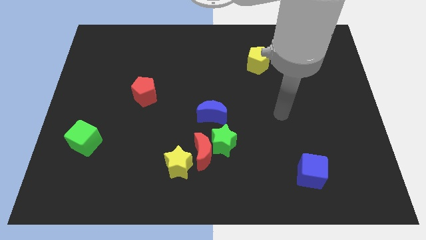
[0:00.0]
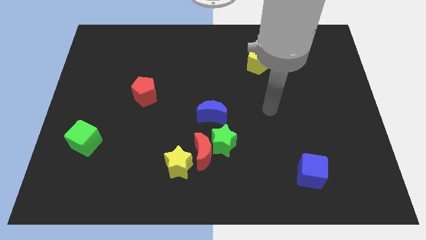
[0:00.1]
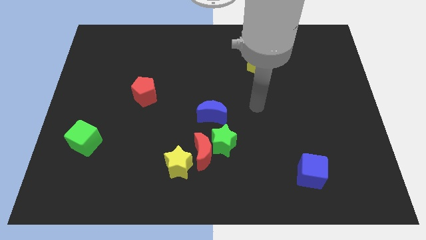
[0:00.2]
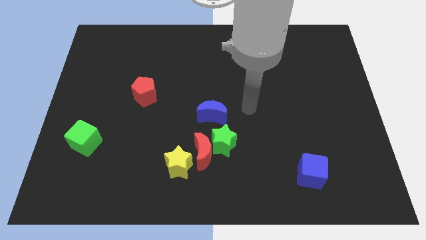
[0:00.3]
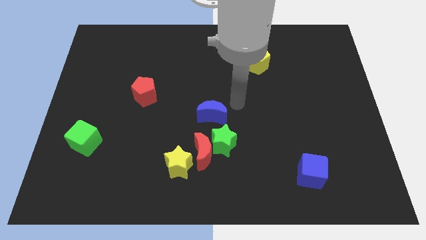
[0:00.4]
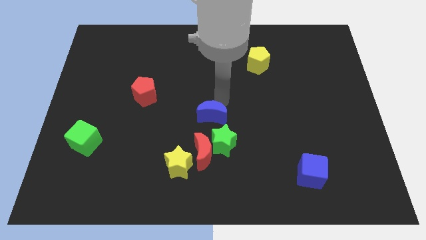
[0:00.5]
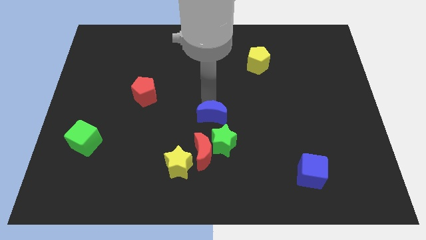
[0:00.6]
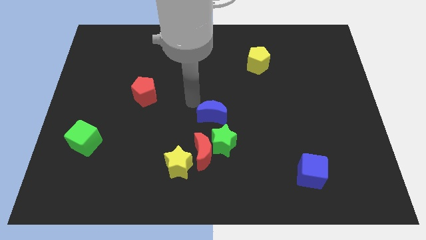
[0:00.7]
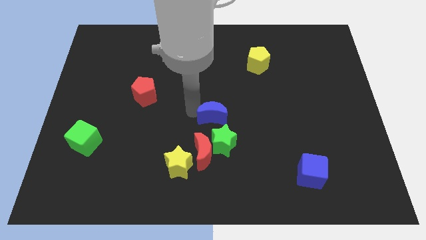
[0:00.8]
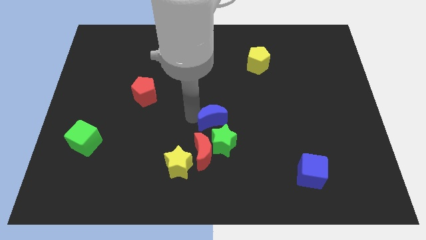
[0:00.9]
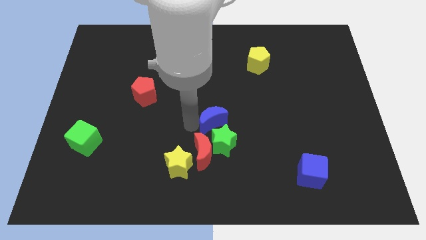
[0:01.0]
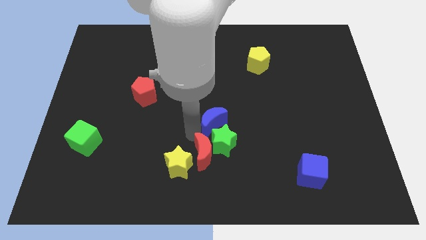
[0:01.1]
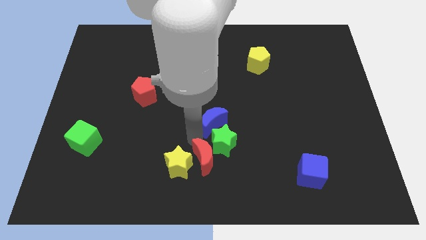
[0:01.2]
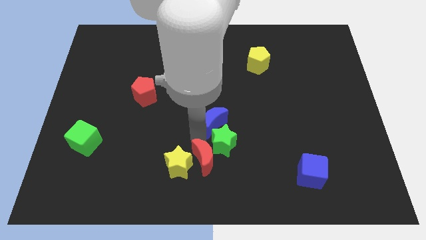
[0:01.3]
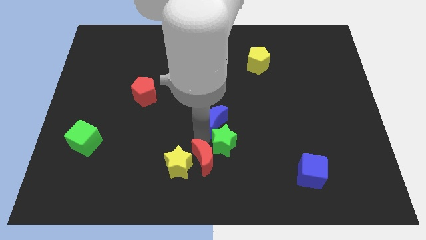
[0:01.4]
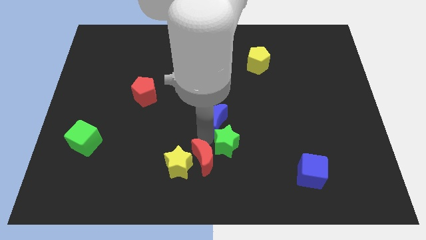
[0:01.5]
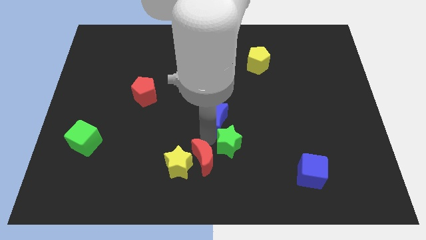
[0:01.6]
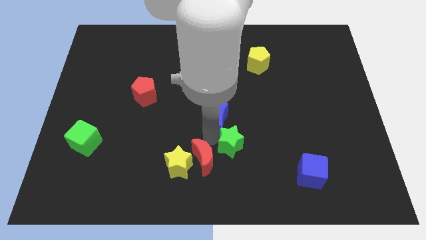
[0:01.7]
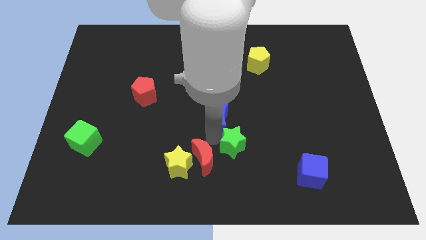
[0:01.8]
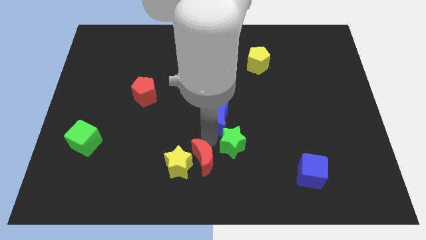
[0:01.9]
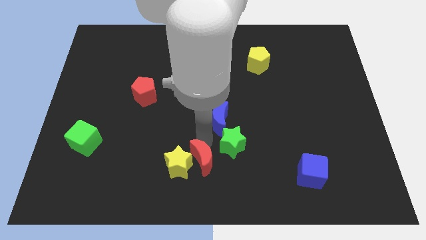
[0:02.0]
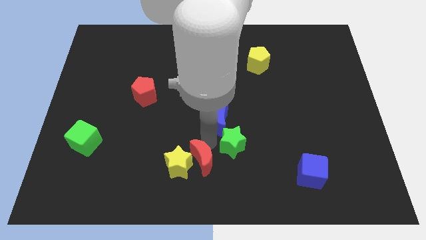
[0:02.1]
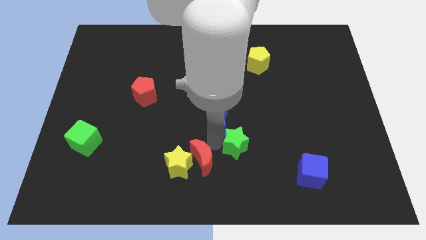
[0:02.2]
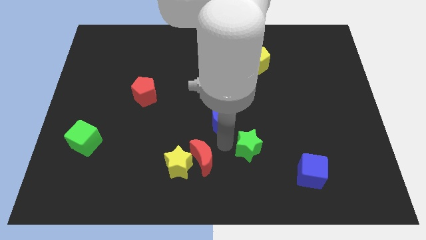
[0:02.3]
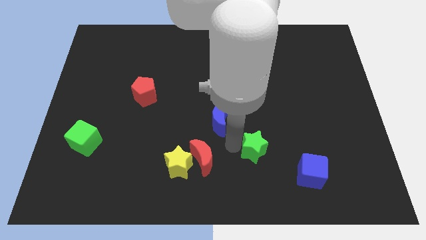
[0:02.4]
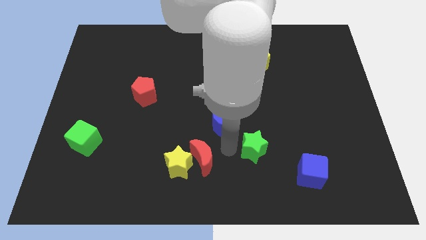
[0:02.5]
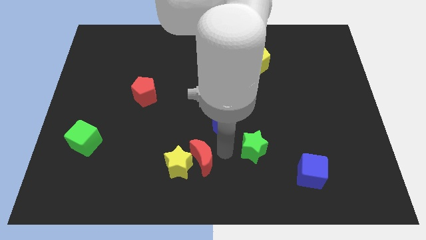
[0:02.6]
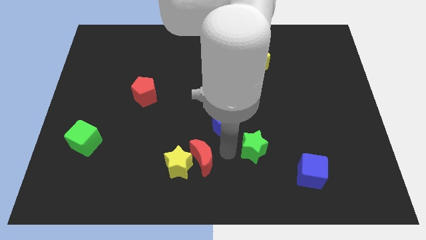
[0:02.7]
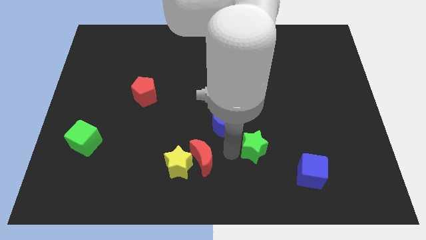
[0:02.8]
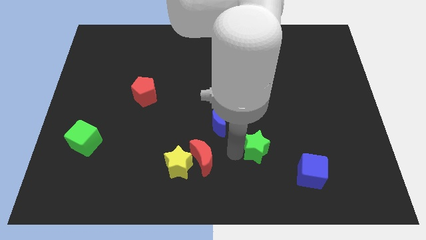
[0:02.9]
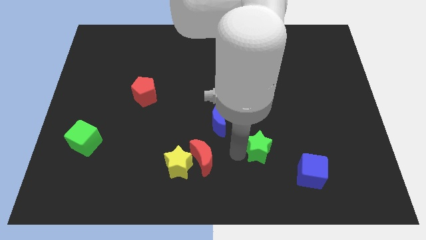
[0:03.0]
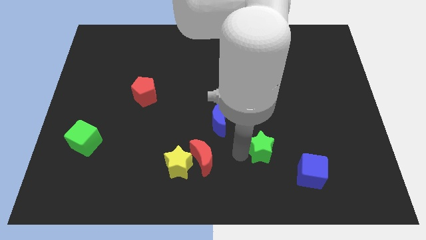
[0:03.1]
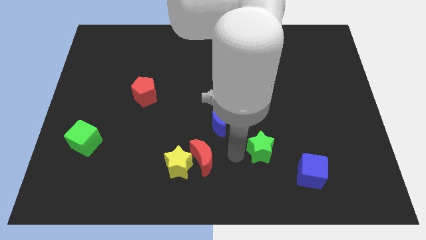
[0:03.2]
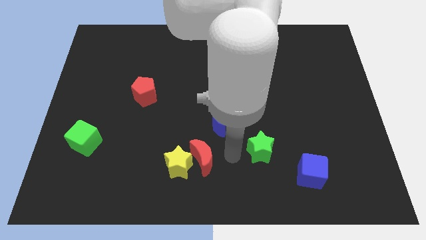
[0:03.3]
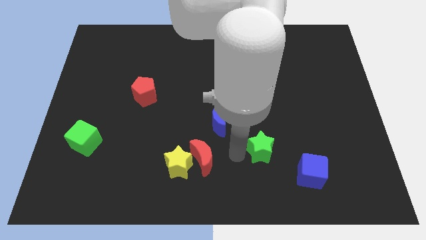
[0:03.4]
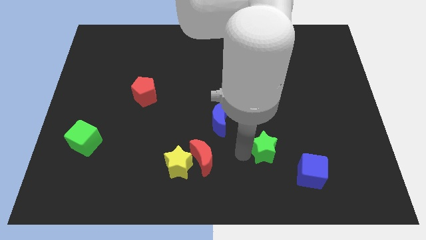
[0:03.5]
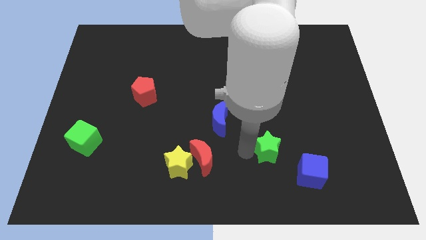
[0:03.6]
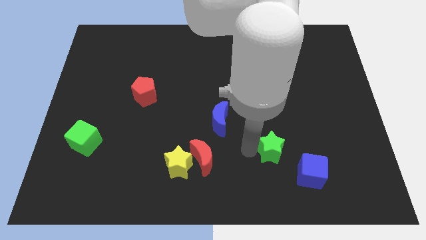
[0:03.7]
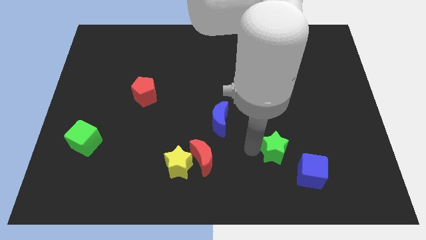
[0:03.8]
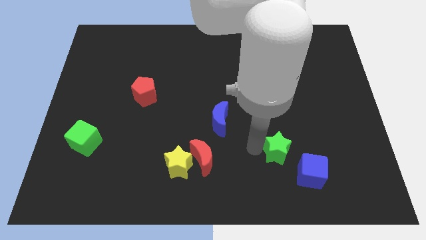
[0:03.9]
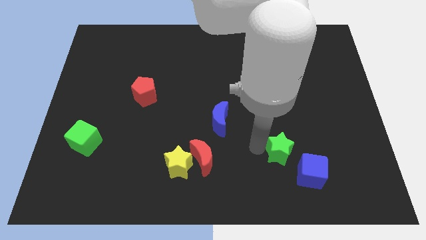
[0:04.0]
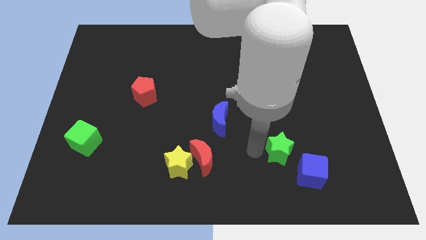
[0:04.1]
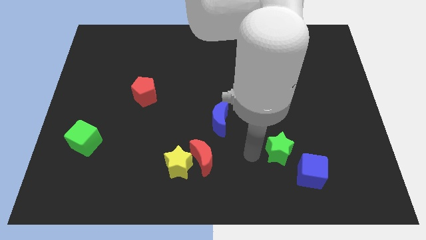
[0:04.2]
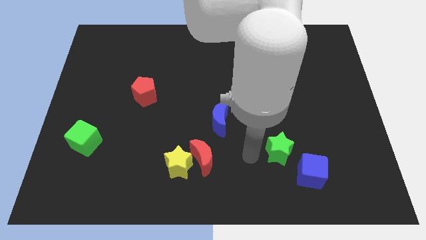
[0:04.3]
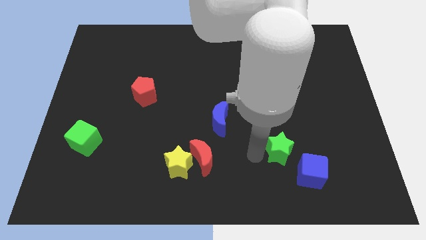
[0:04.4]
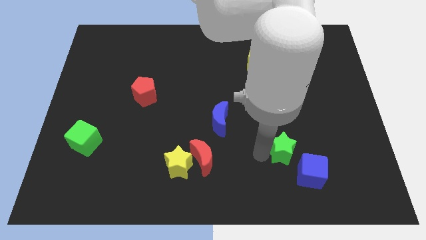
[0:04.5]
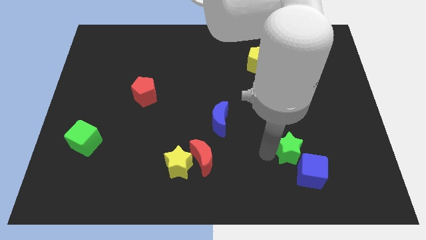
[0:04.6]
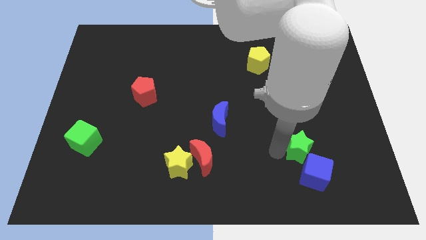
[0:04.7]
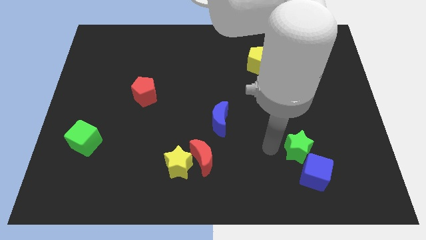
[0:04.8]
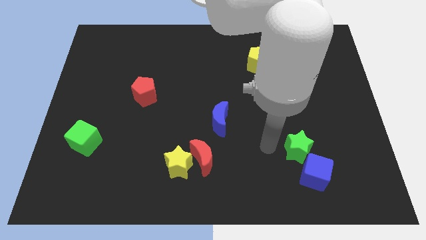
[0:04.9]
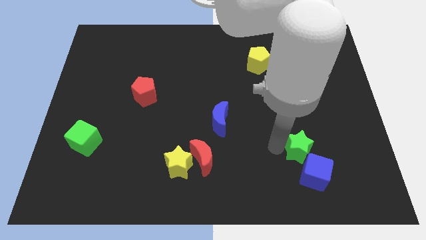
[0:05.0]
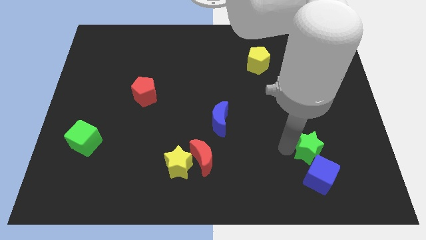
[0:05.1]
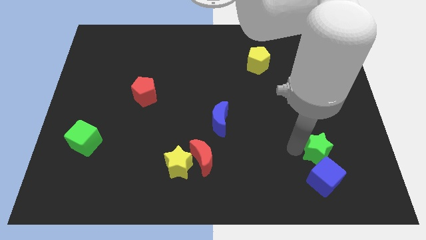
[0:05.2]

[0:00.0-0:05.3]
move the green star to the top right side of the blue cube

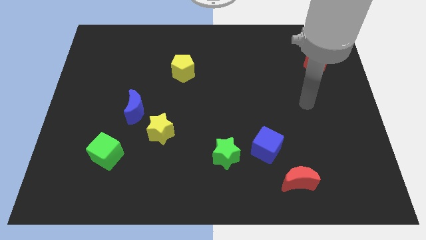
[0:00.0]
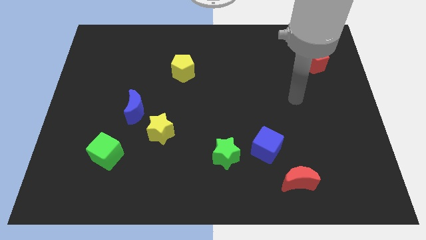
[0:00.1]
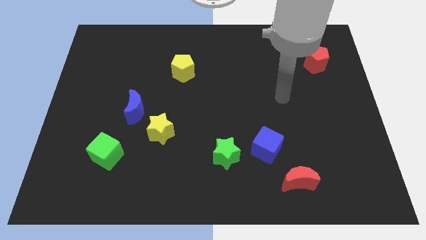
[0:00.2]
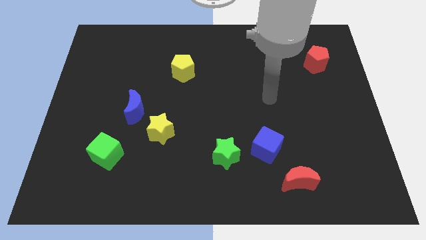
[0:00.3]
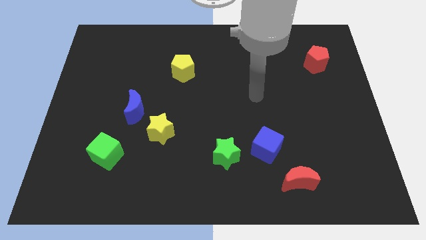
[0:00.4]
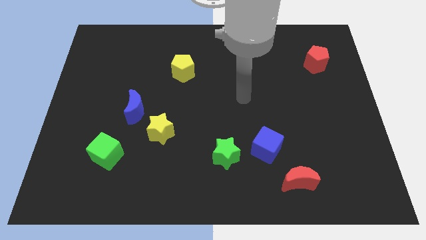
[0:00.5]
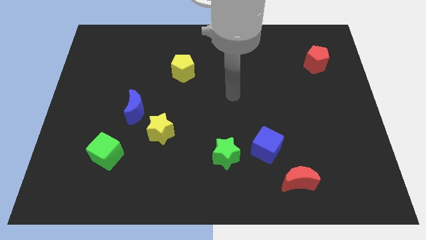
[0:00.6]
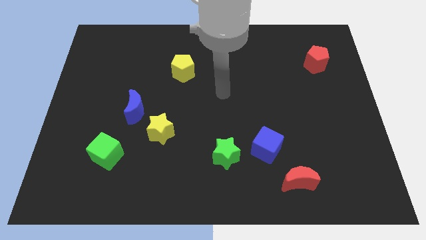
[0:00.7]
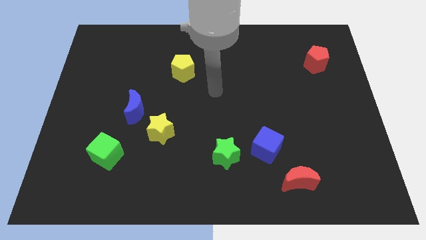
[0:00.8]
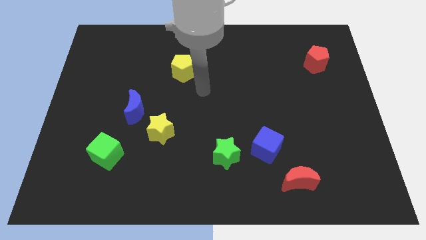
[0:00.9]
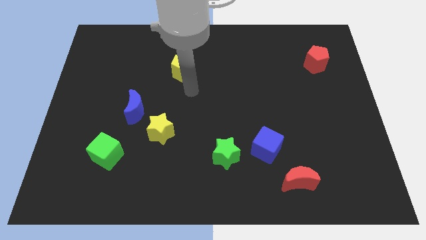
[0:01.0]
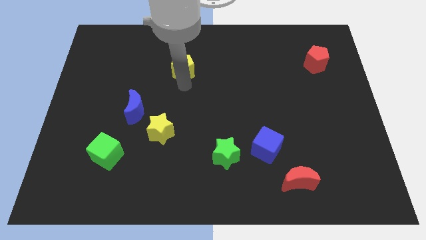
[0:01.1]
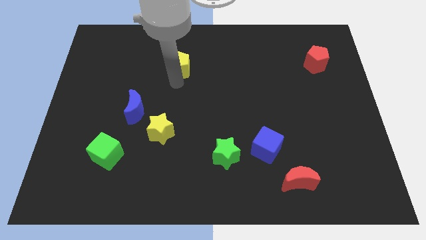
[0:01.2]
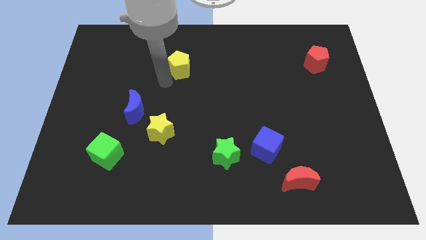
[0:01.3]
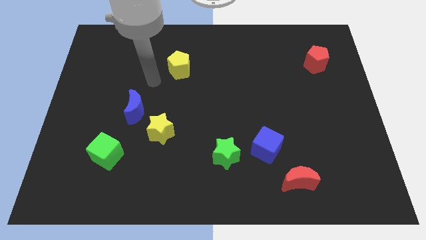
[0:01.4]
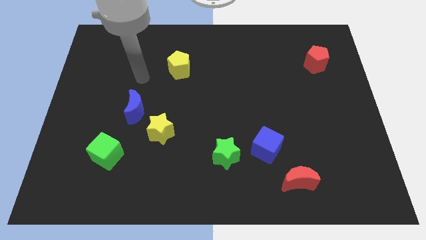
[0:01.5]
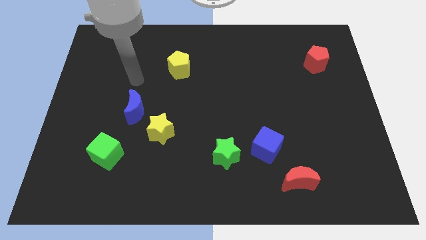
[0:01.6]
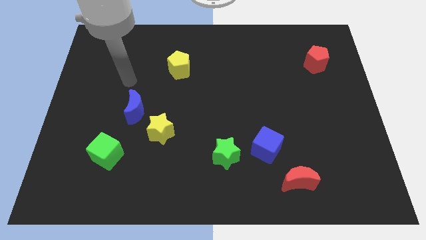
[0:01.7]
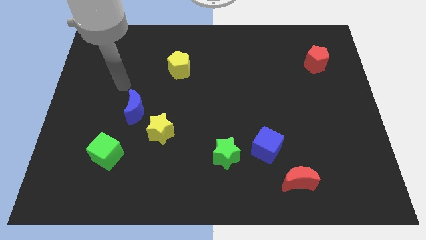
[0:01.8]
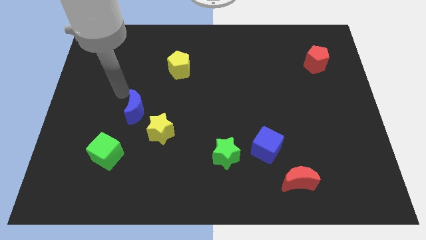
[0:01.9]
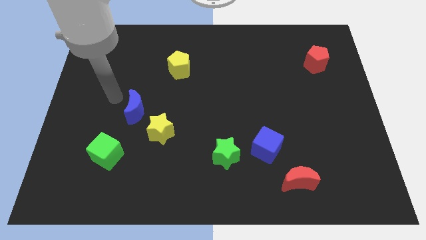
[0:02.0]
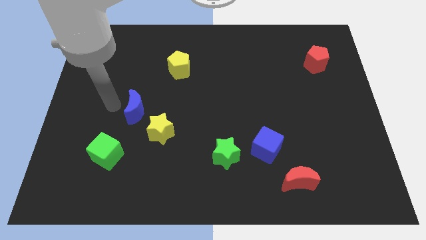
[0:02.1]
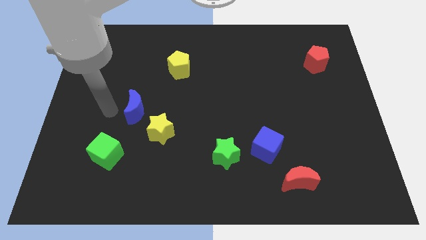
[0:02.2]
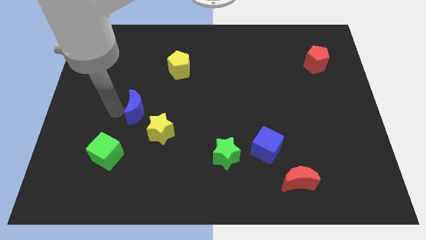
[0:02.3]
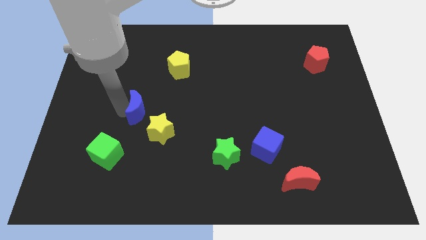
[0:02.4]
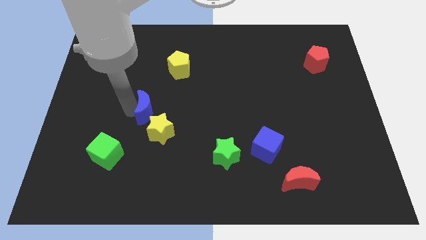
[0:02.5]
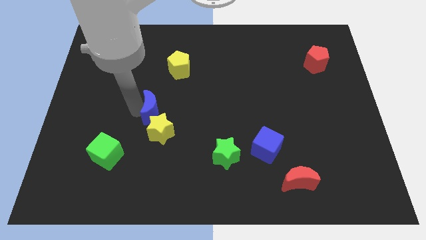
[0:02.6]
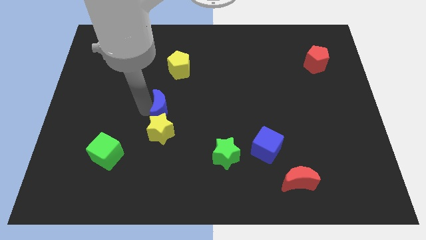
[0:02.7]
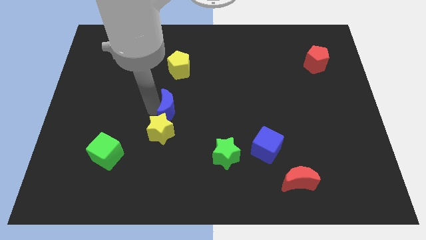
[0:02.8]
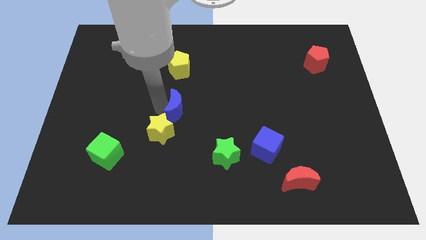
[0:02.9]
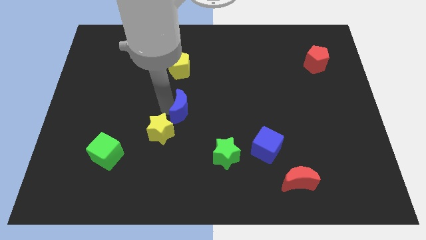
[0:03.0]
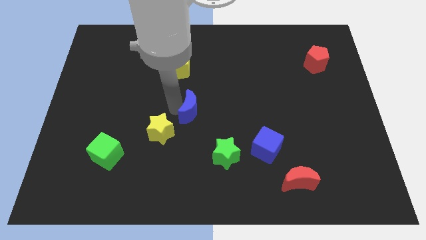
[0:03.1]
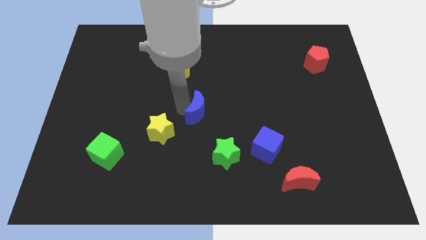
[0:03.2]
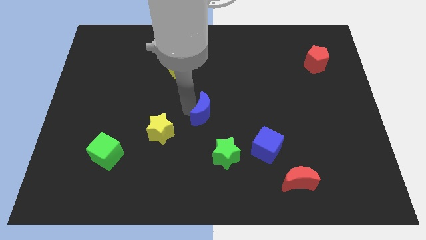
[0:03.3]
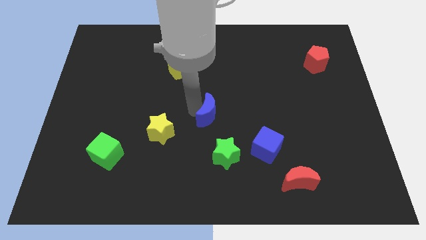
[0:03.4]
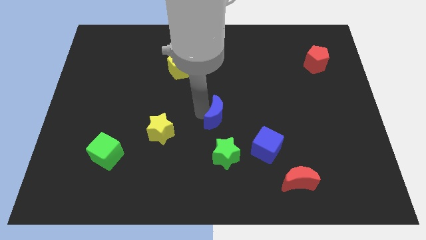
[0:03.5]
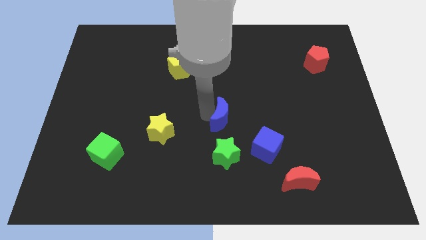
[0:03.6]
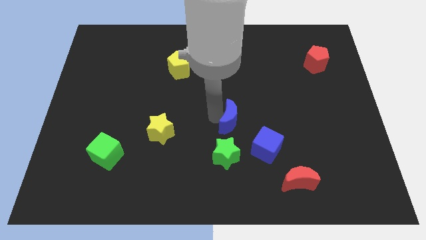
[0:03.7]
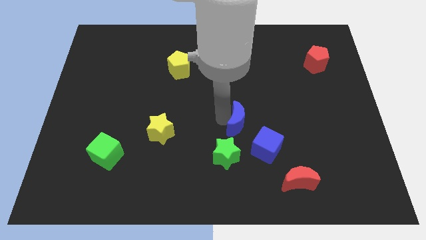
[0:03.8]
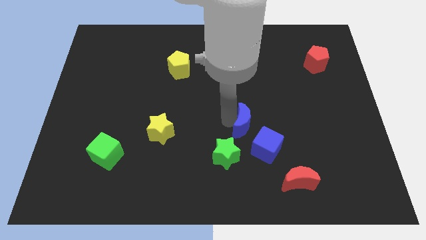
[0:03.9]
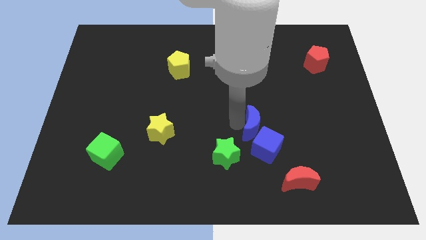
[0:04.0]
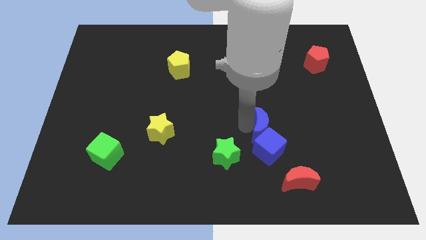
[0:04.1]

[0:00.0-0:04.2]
slide the blue moon to the top right of the blue cube
